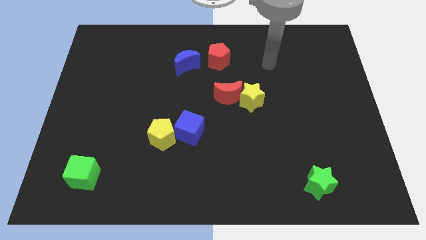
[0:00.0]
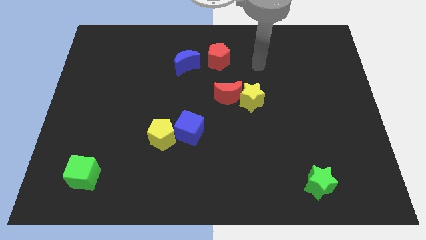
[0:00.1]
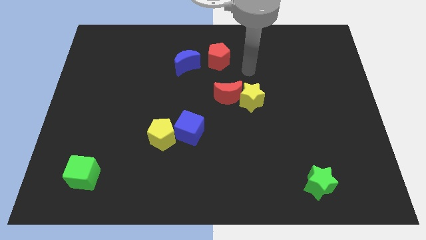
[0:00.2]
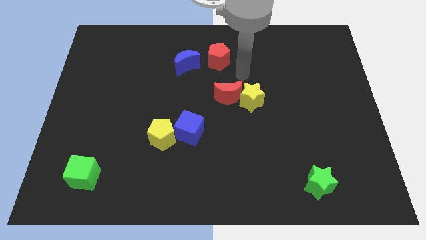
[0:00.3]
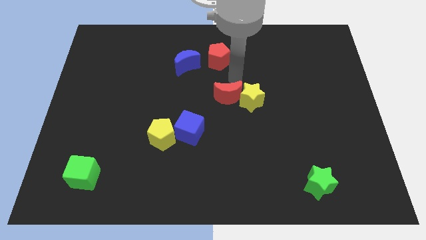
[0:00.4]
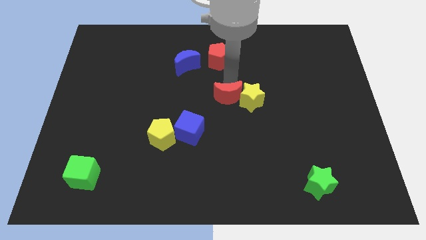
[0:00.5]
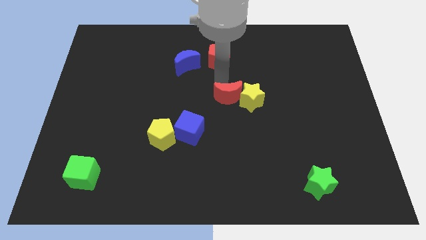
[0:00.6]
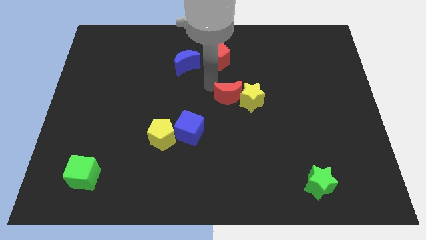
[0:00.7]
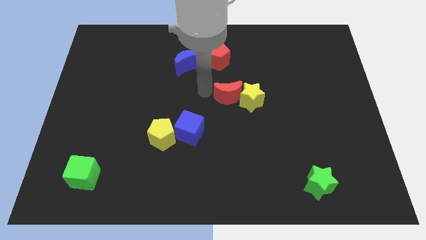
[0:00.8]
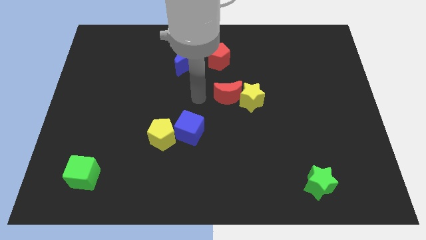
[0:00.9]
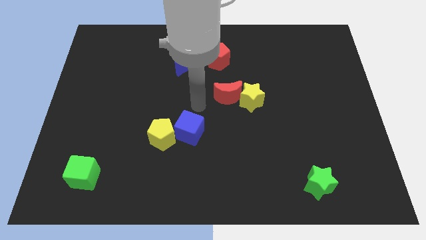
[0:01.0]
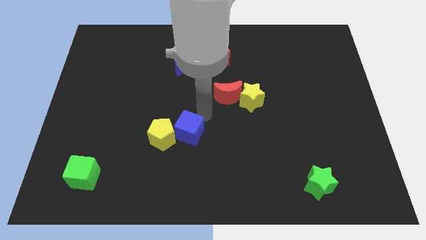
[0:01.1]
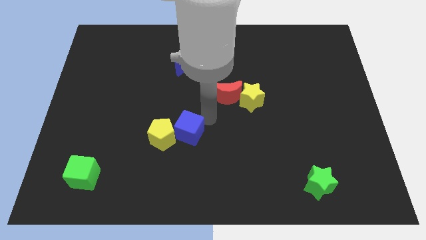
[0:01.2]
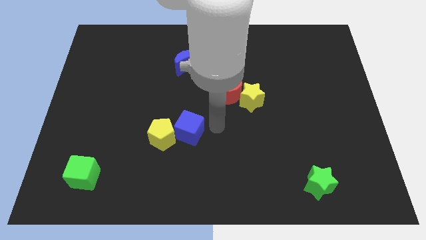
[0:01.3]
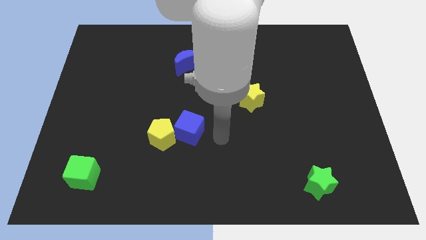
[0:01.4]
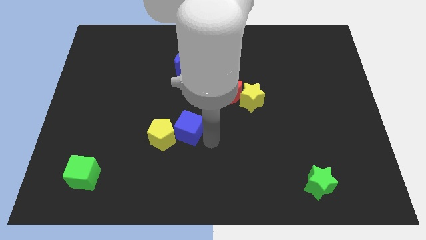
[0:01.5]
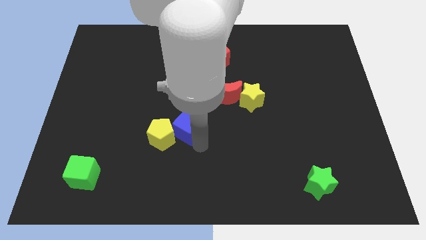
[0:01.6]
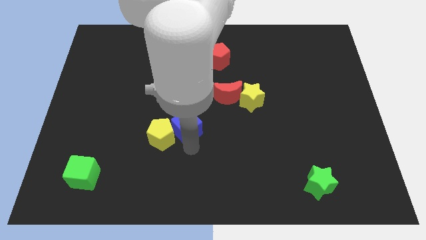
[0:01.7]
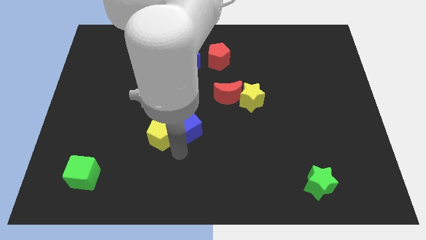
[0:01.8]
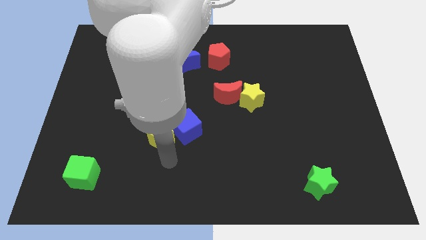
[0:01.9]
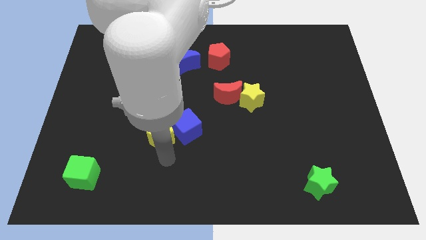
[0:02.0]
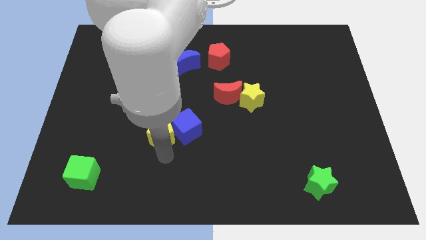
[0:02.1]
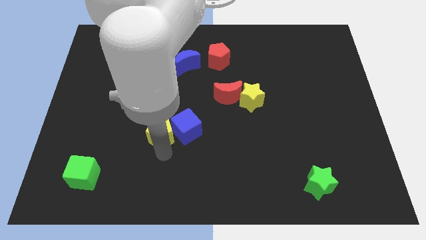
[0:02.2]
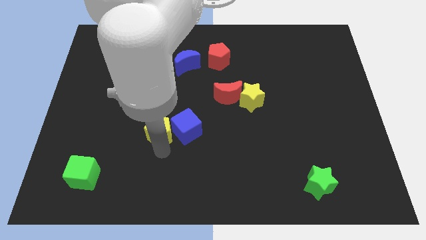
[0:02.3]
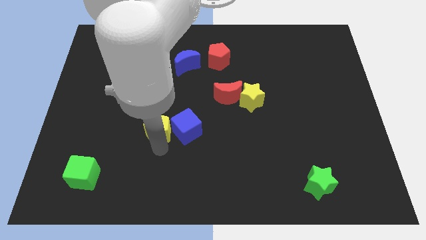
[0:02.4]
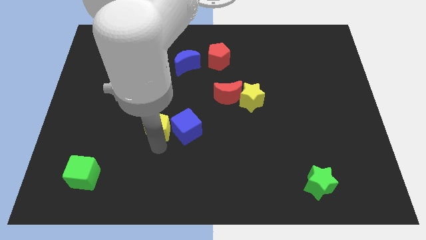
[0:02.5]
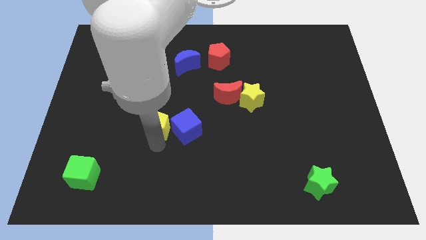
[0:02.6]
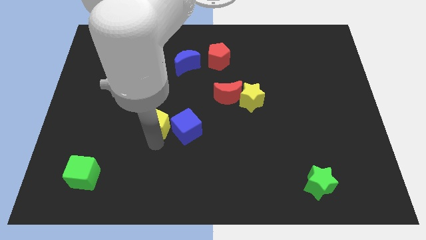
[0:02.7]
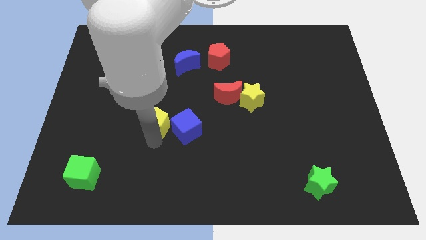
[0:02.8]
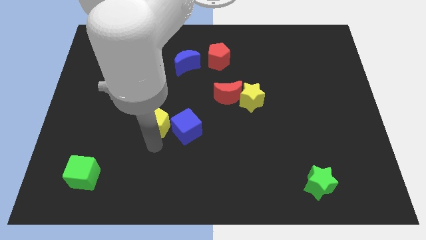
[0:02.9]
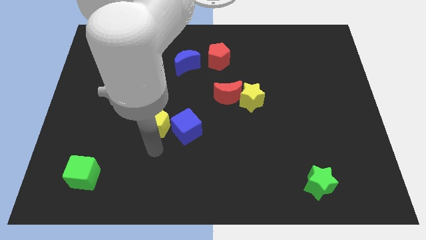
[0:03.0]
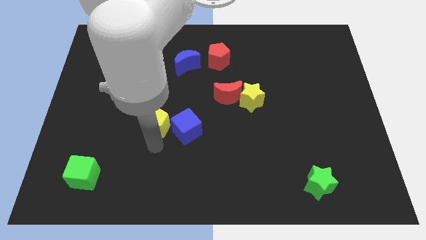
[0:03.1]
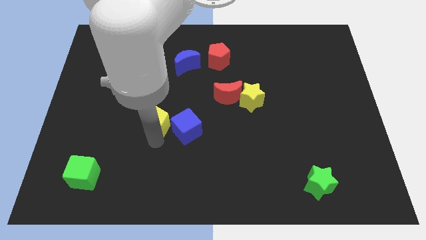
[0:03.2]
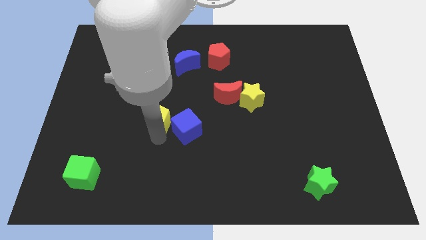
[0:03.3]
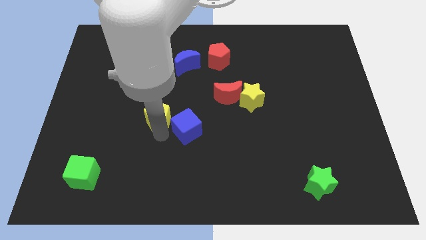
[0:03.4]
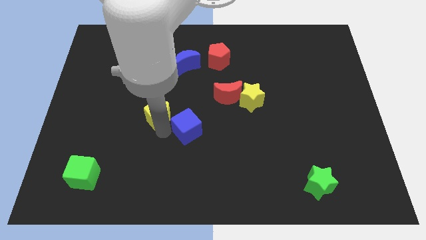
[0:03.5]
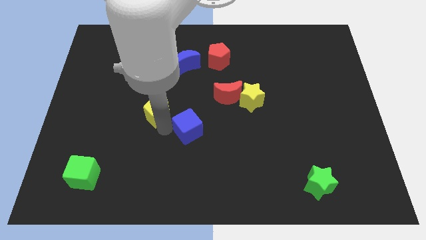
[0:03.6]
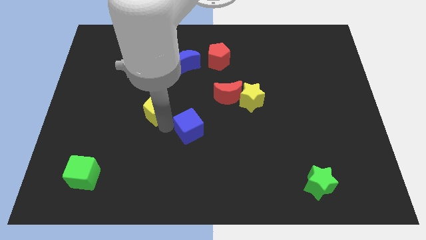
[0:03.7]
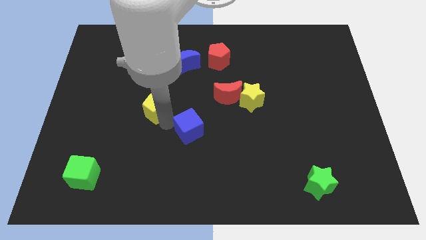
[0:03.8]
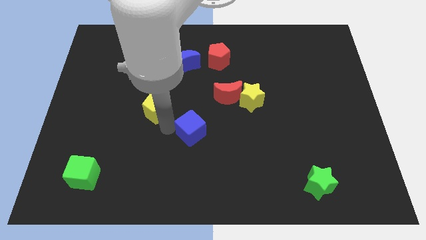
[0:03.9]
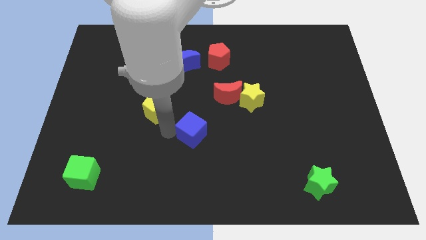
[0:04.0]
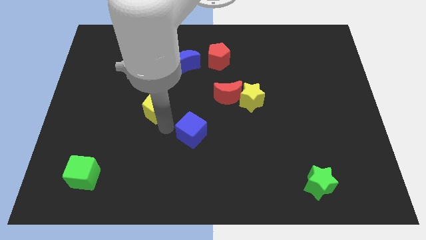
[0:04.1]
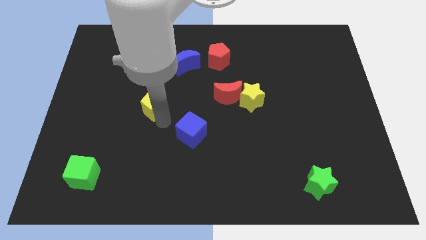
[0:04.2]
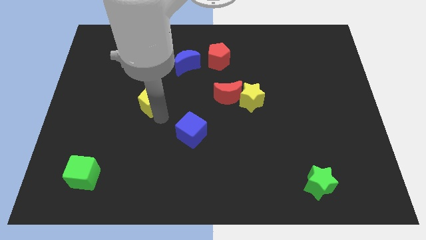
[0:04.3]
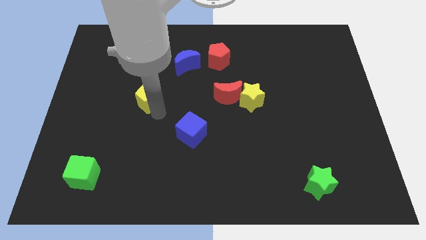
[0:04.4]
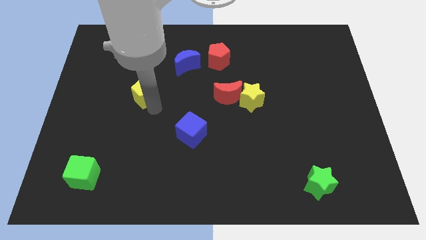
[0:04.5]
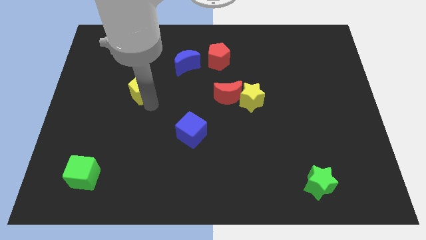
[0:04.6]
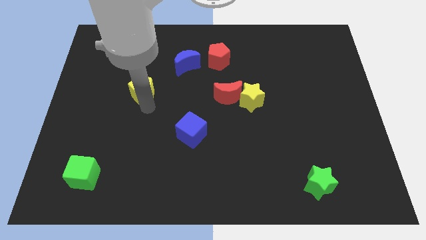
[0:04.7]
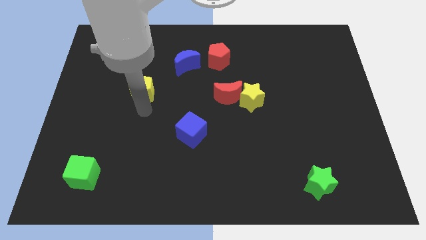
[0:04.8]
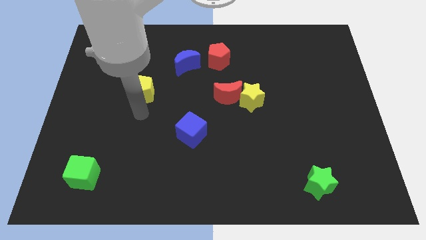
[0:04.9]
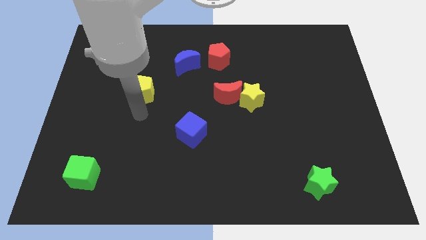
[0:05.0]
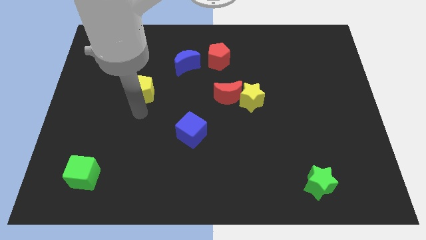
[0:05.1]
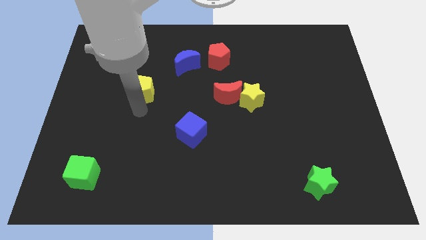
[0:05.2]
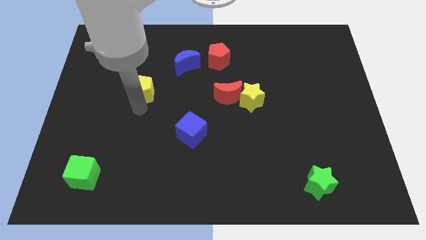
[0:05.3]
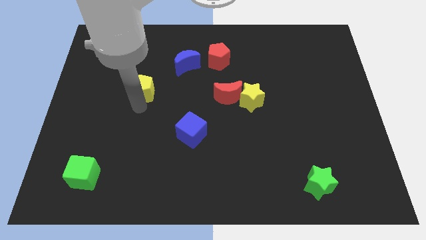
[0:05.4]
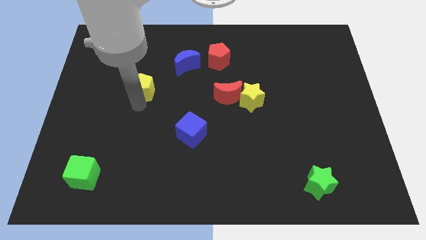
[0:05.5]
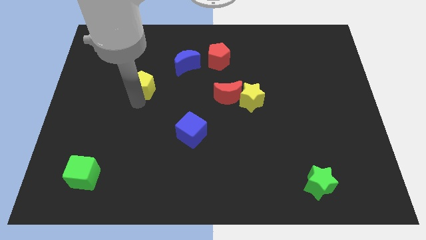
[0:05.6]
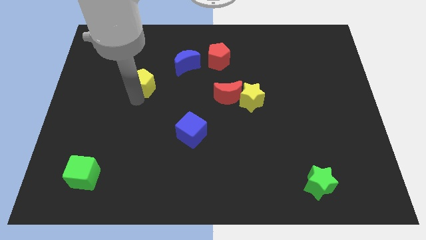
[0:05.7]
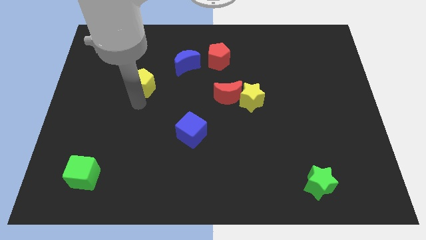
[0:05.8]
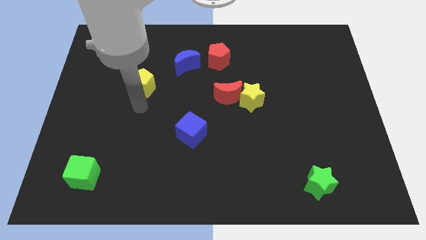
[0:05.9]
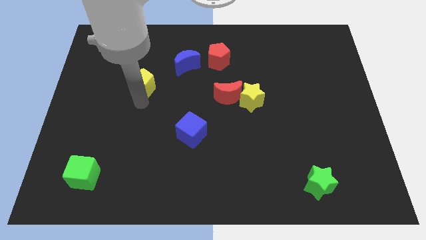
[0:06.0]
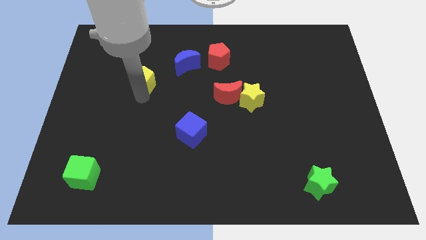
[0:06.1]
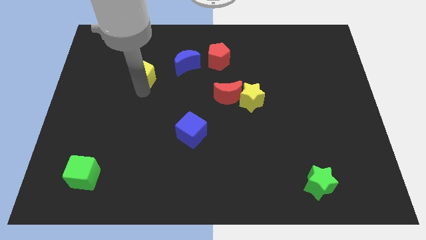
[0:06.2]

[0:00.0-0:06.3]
put the yellow pentagon to the left side of the blue moon

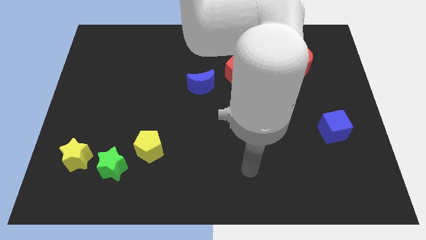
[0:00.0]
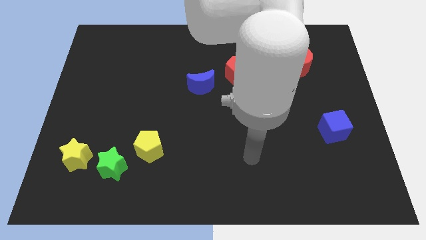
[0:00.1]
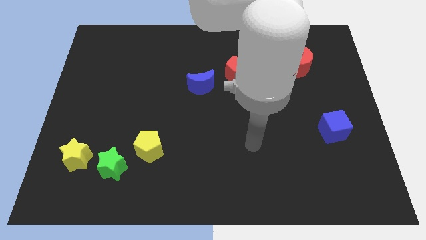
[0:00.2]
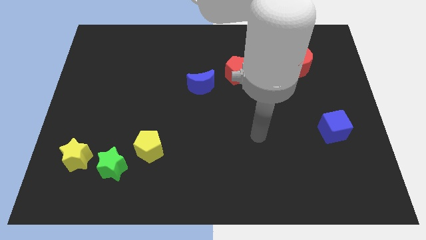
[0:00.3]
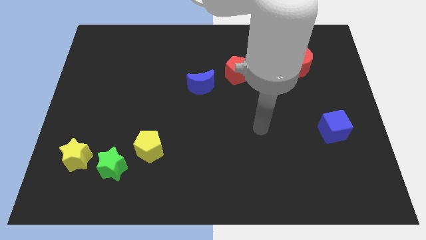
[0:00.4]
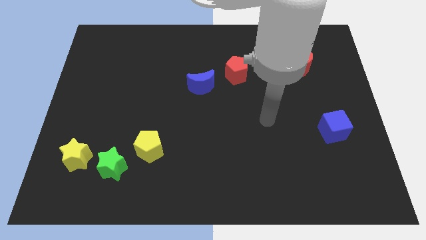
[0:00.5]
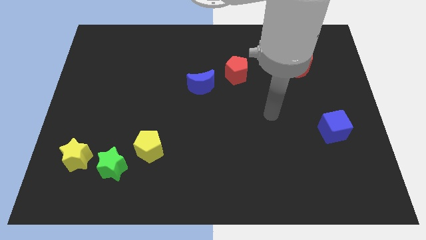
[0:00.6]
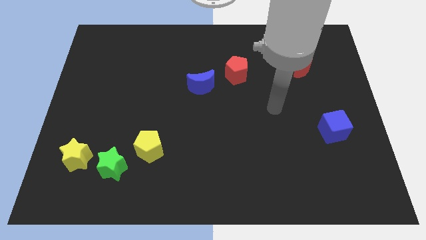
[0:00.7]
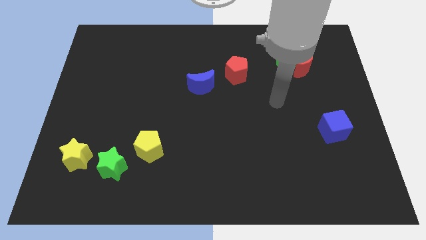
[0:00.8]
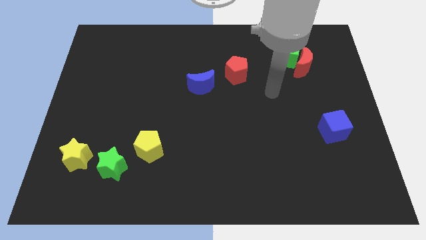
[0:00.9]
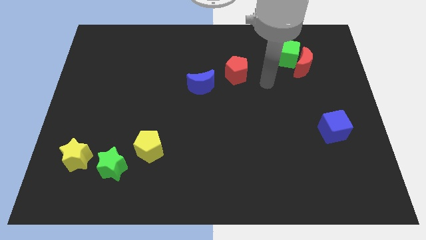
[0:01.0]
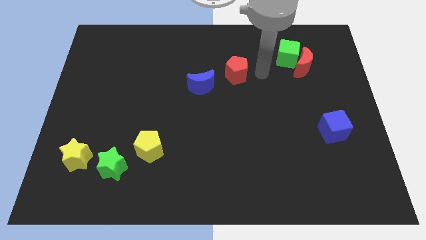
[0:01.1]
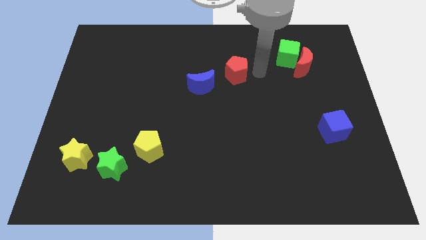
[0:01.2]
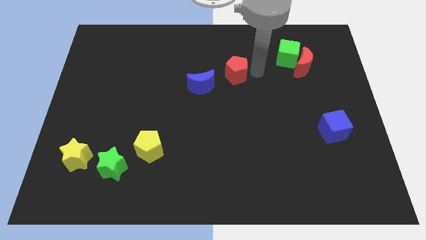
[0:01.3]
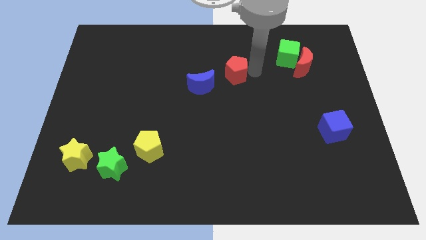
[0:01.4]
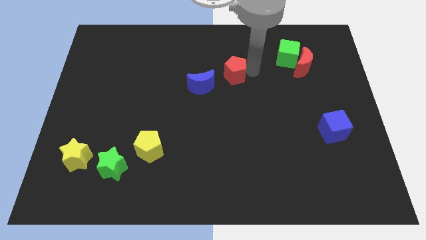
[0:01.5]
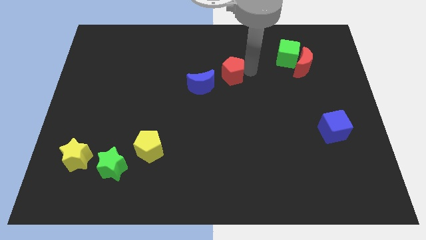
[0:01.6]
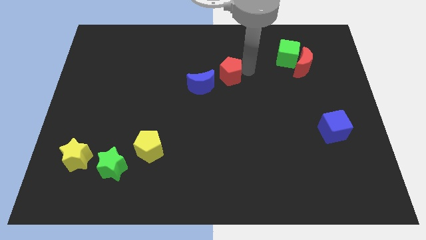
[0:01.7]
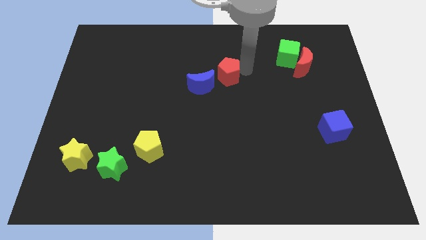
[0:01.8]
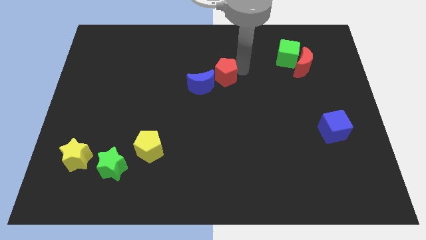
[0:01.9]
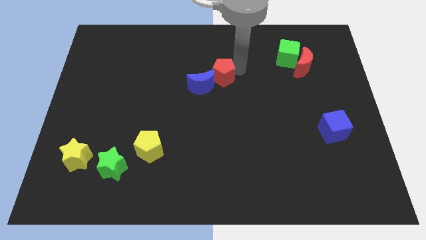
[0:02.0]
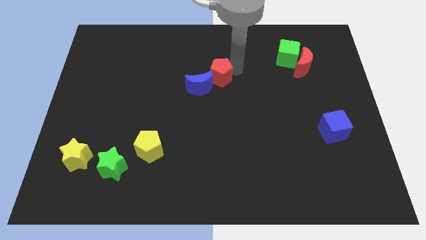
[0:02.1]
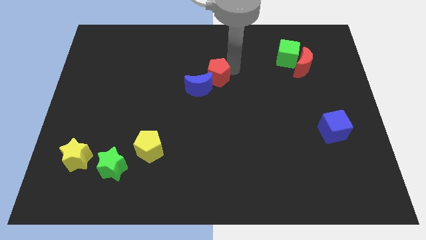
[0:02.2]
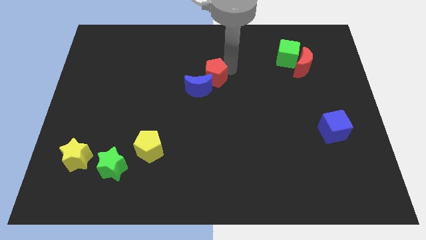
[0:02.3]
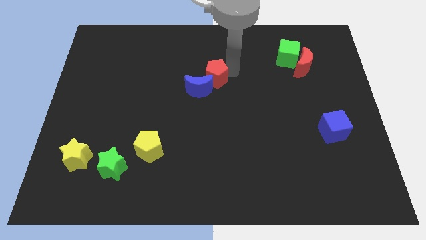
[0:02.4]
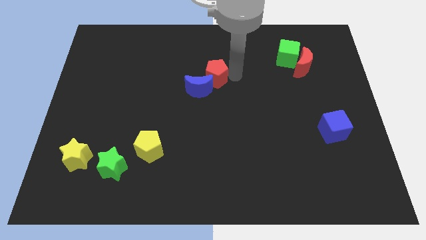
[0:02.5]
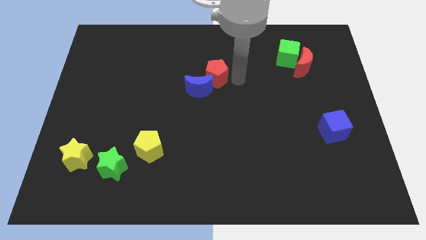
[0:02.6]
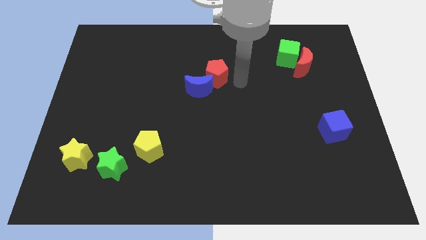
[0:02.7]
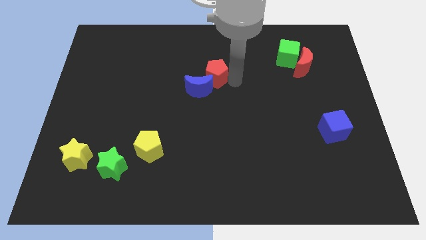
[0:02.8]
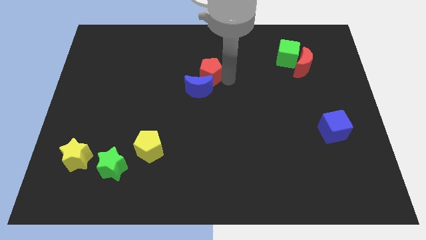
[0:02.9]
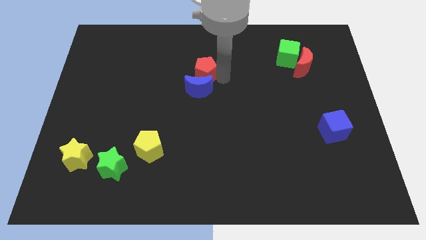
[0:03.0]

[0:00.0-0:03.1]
push the red pentagon to the top left side of the blue moon
